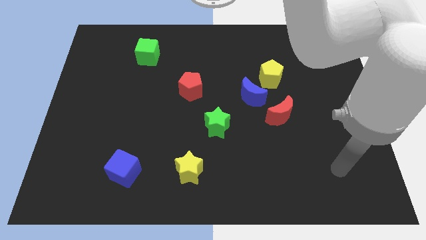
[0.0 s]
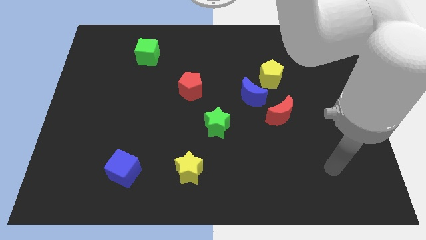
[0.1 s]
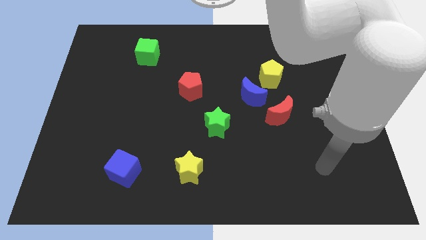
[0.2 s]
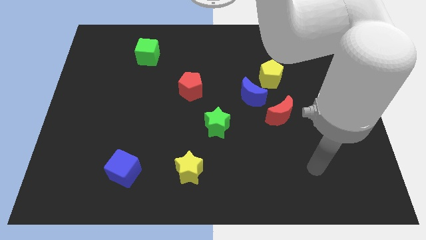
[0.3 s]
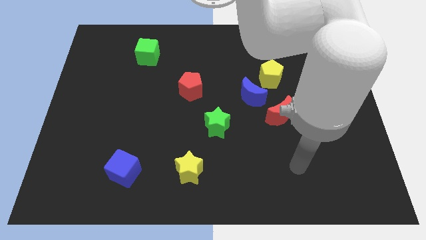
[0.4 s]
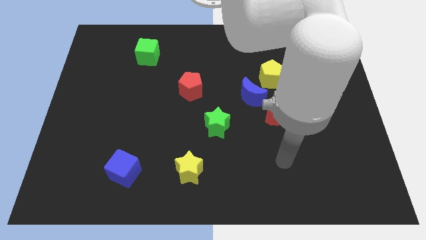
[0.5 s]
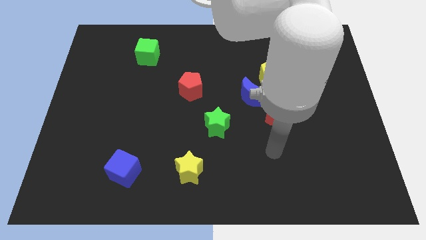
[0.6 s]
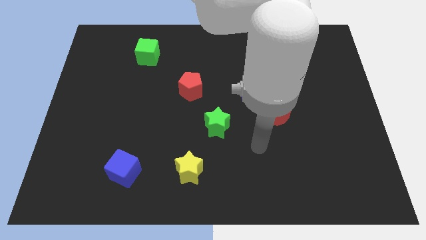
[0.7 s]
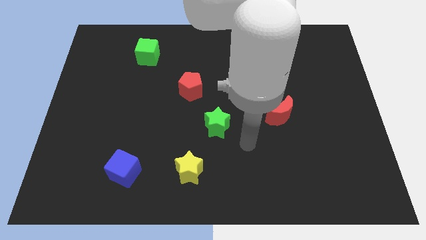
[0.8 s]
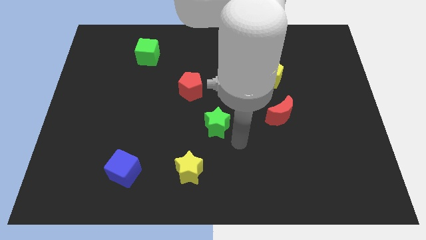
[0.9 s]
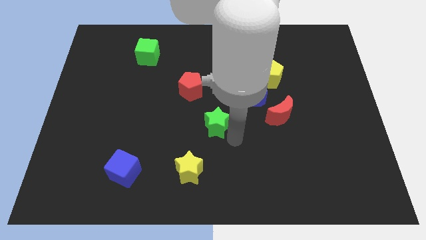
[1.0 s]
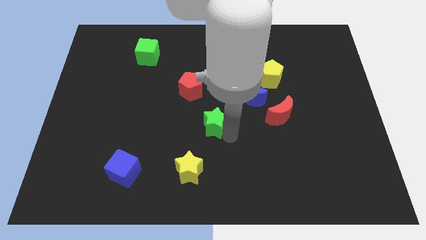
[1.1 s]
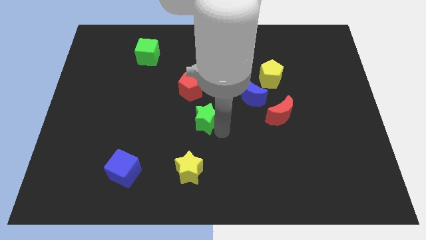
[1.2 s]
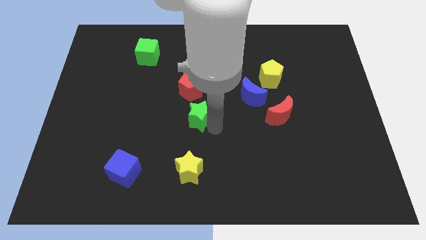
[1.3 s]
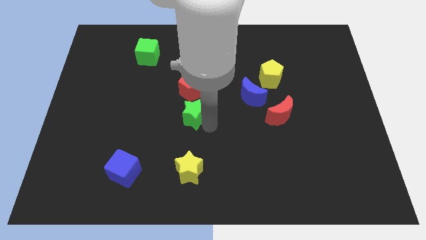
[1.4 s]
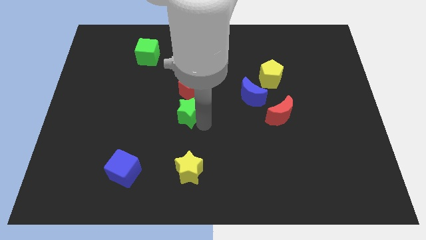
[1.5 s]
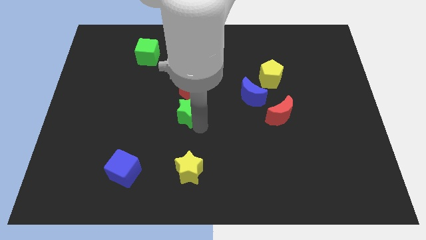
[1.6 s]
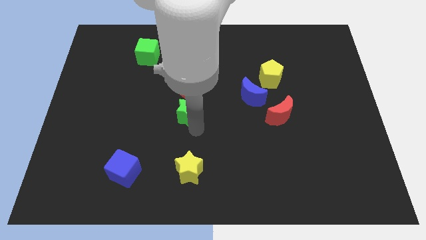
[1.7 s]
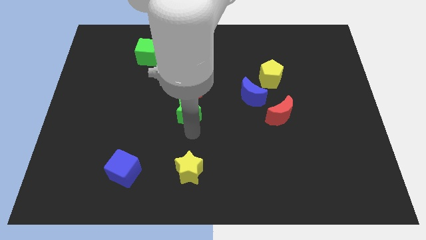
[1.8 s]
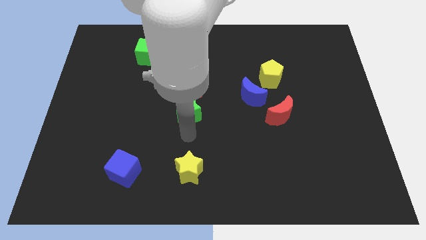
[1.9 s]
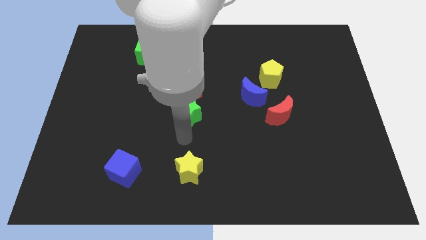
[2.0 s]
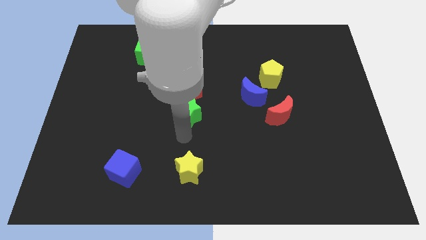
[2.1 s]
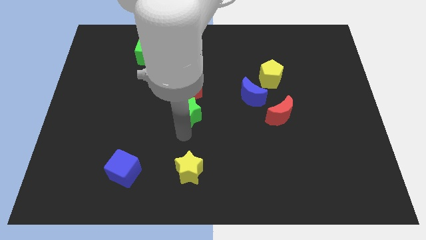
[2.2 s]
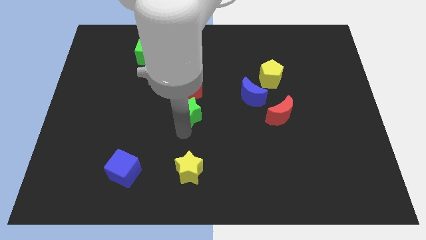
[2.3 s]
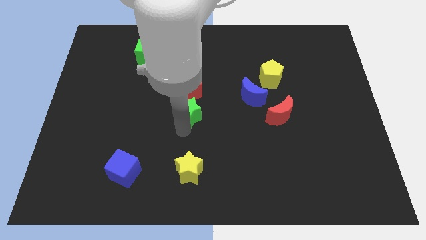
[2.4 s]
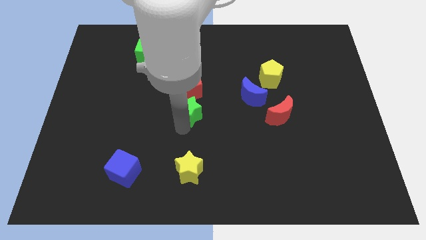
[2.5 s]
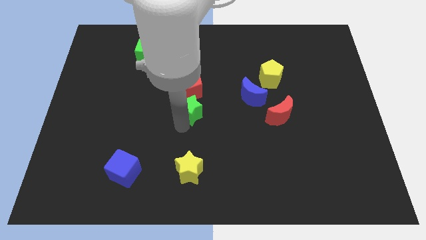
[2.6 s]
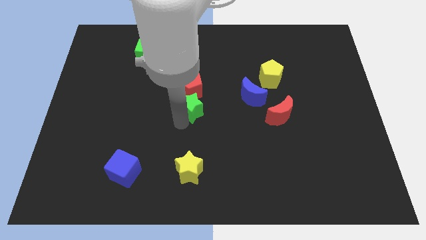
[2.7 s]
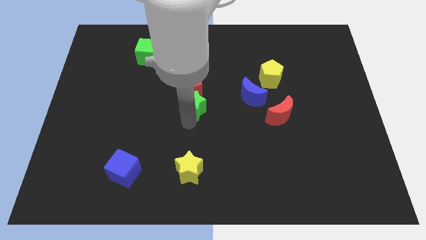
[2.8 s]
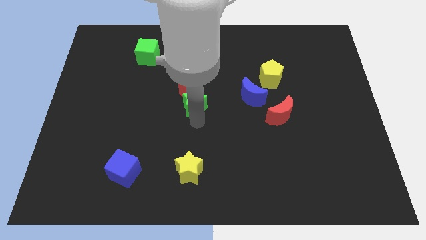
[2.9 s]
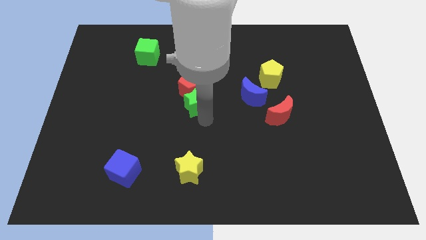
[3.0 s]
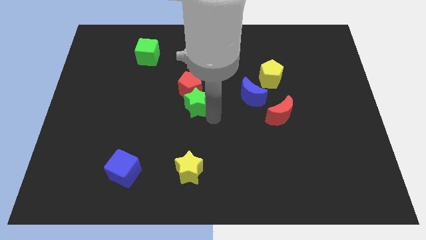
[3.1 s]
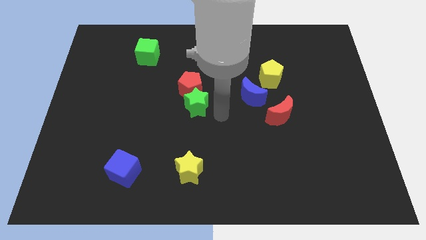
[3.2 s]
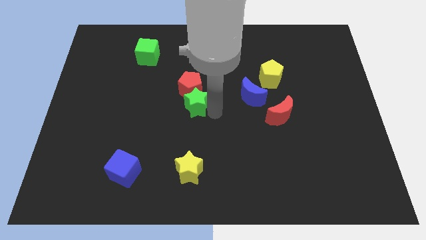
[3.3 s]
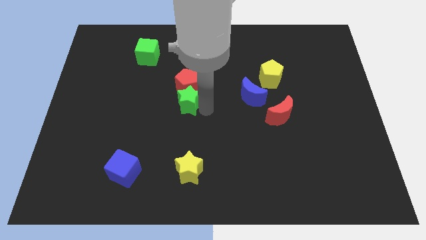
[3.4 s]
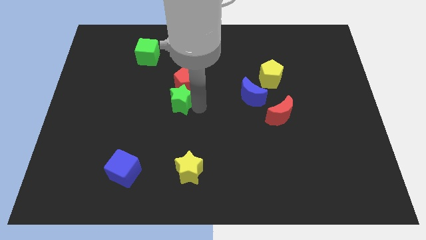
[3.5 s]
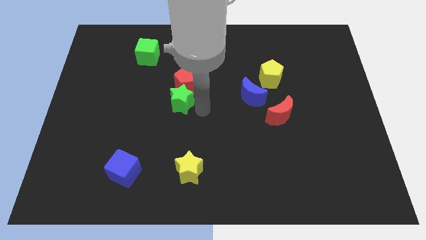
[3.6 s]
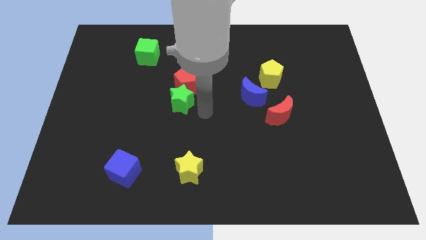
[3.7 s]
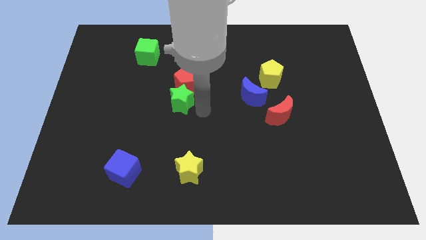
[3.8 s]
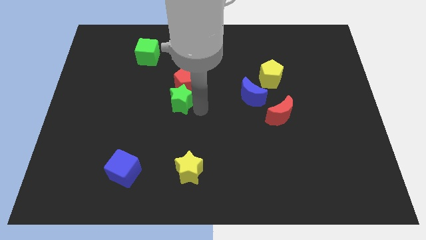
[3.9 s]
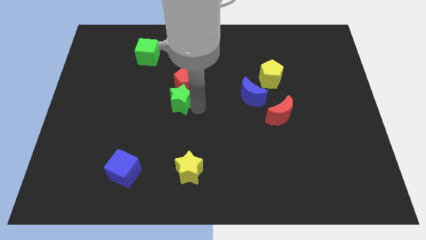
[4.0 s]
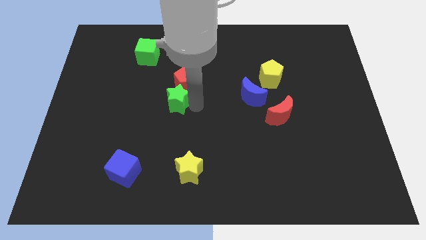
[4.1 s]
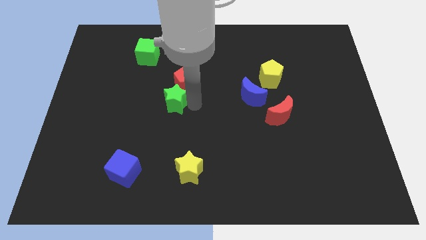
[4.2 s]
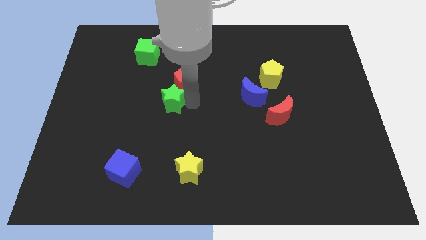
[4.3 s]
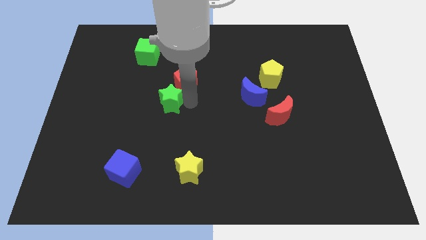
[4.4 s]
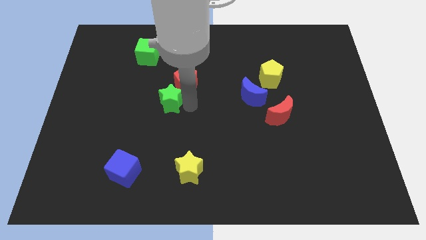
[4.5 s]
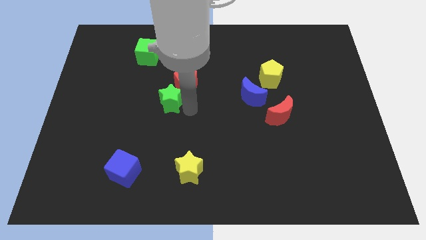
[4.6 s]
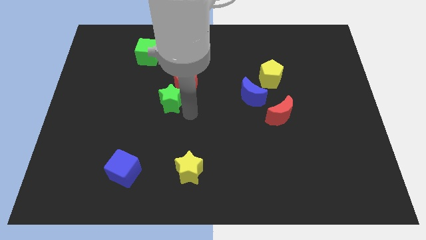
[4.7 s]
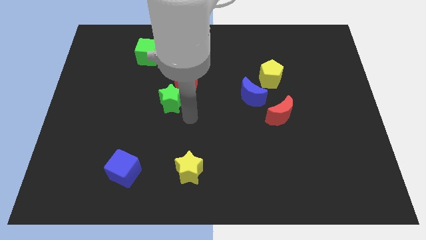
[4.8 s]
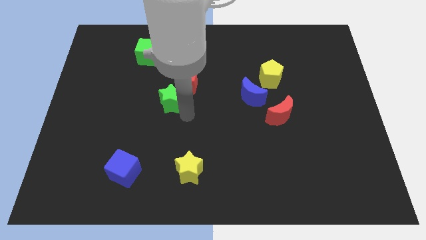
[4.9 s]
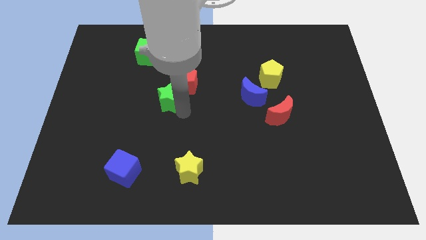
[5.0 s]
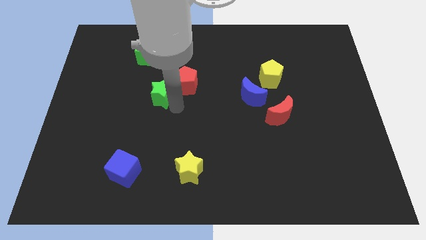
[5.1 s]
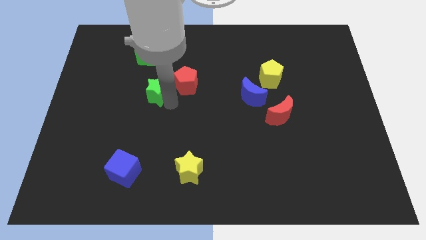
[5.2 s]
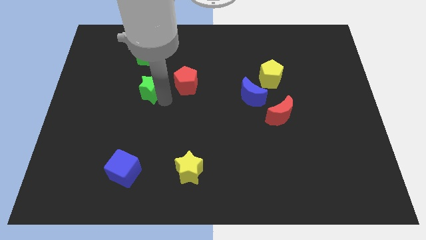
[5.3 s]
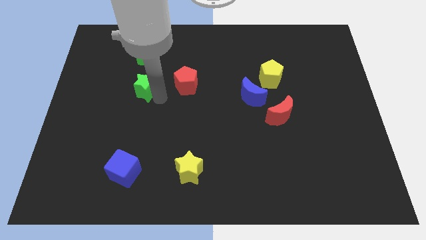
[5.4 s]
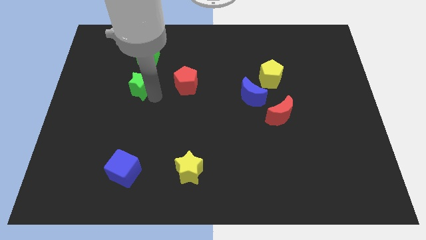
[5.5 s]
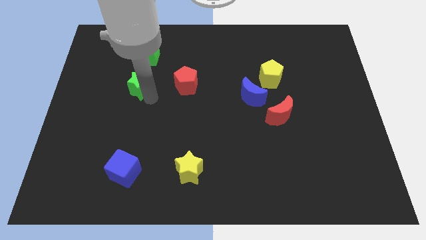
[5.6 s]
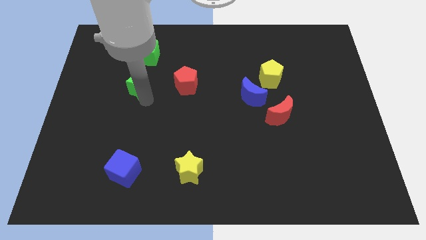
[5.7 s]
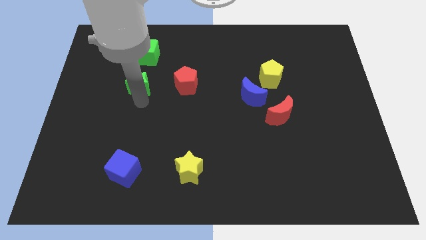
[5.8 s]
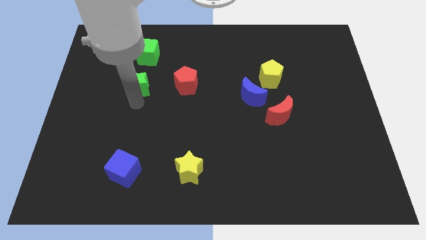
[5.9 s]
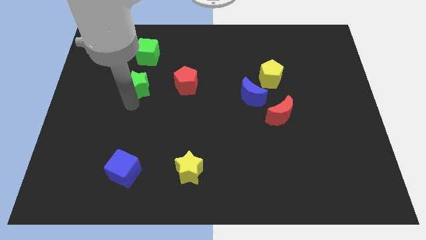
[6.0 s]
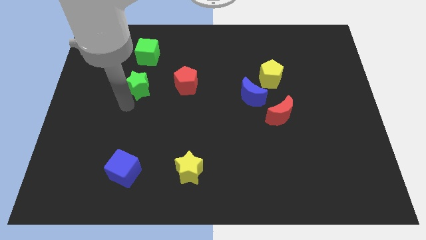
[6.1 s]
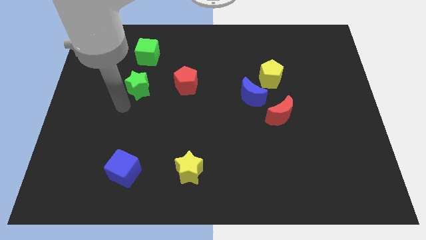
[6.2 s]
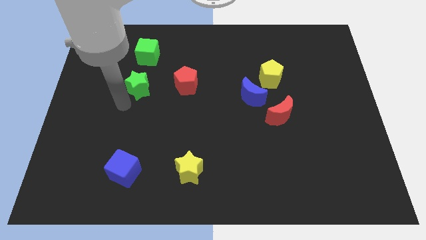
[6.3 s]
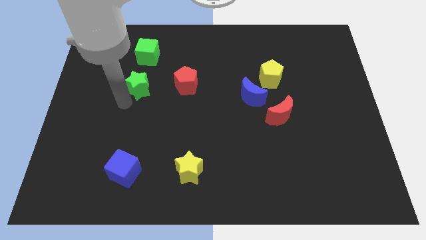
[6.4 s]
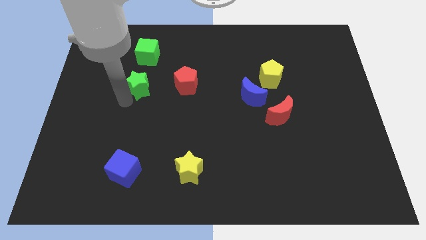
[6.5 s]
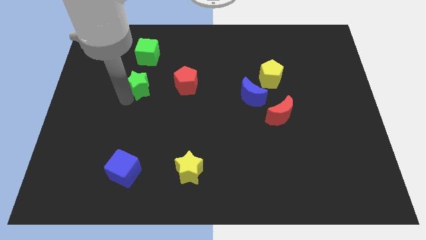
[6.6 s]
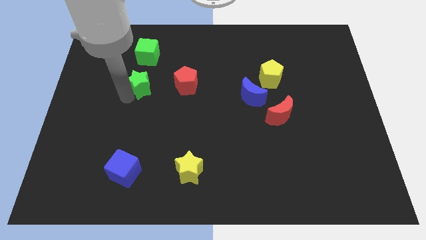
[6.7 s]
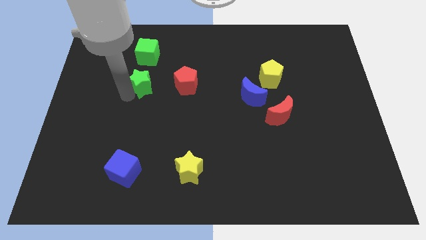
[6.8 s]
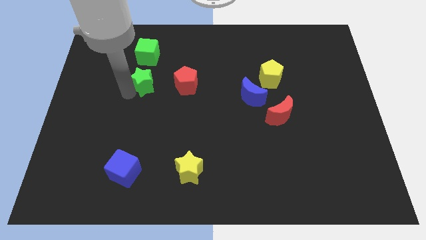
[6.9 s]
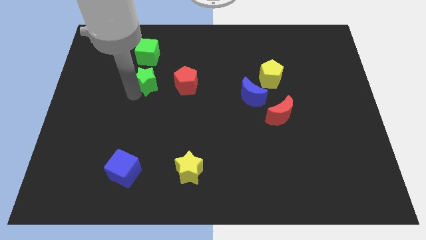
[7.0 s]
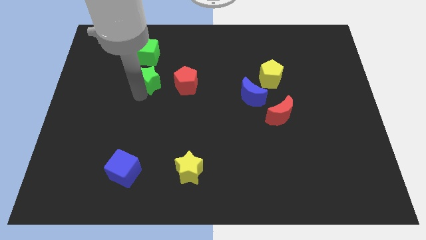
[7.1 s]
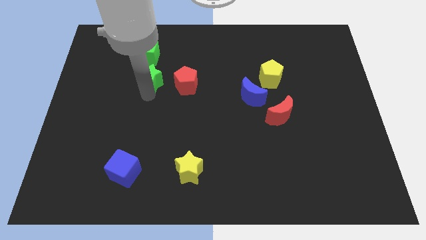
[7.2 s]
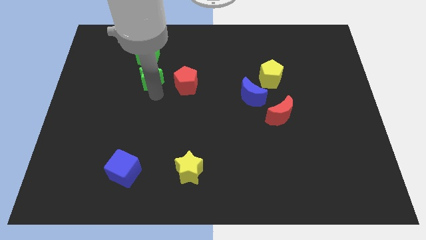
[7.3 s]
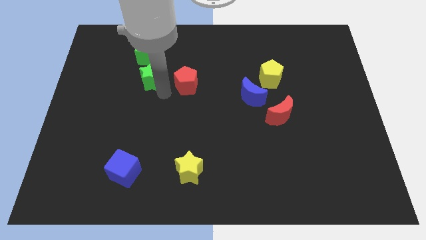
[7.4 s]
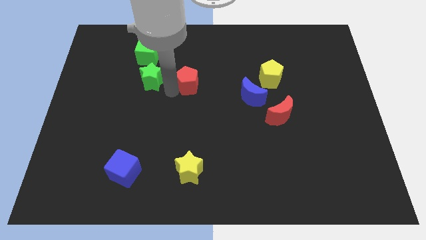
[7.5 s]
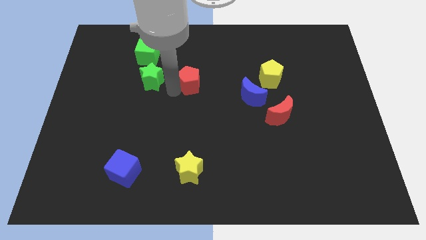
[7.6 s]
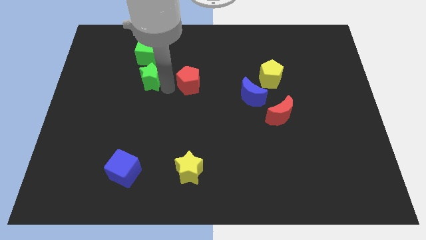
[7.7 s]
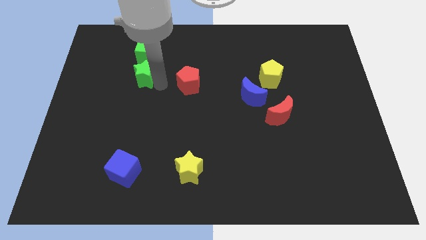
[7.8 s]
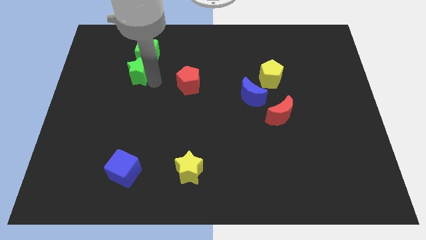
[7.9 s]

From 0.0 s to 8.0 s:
push the green star diagonally down and to the left of the green cube
